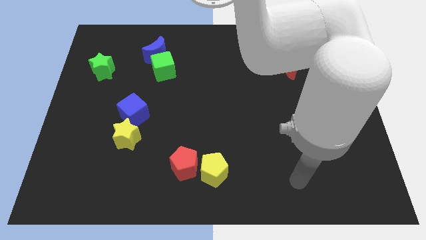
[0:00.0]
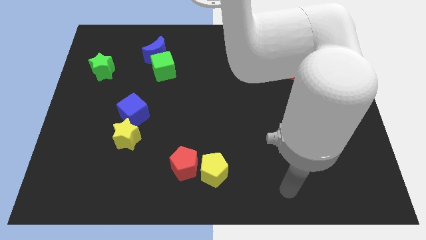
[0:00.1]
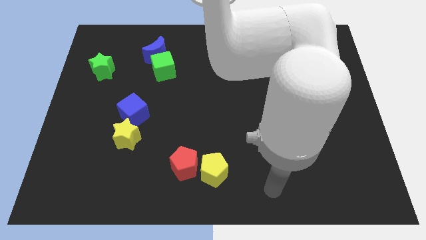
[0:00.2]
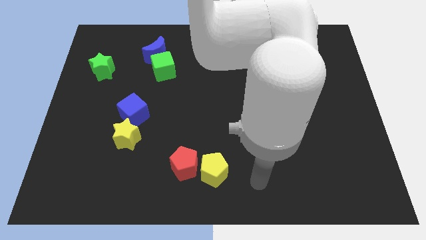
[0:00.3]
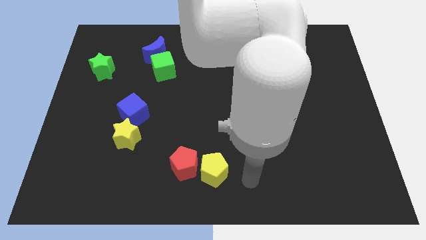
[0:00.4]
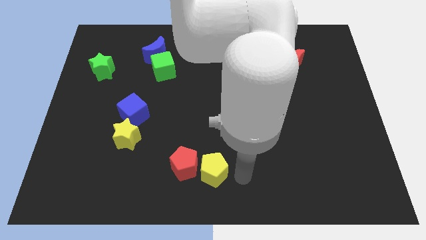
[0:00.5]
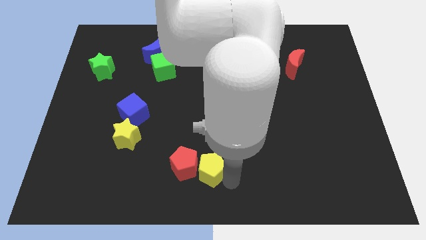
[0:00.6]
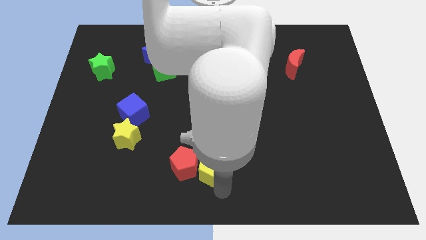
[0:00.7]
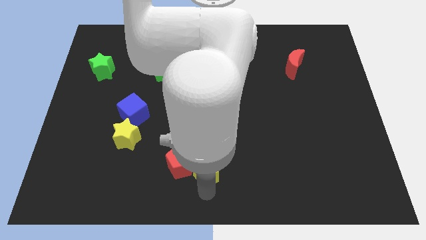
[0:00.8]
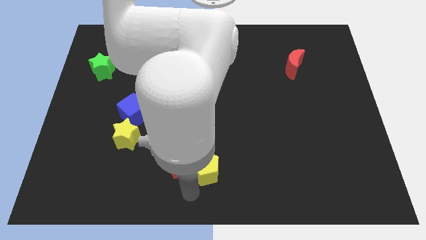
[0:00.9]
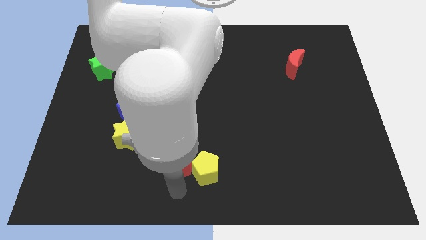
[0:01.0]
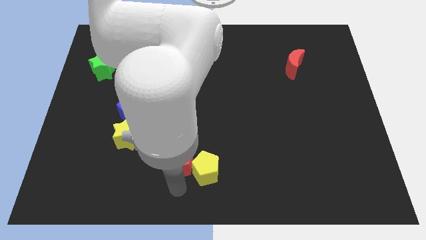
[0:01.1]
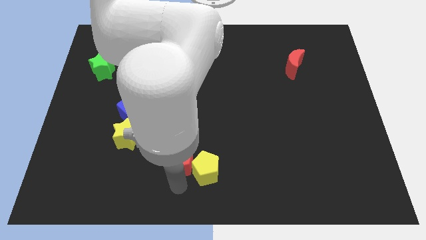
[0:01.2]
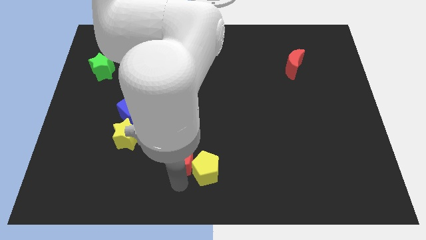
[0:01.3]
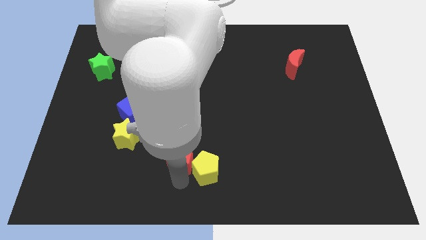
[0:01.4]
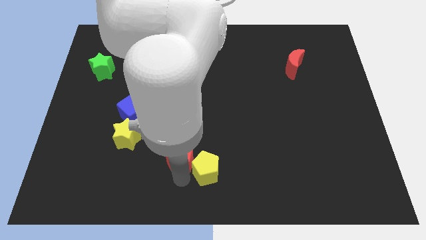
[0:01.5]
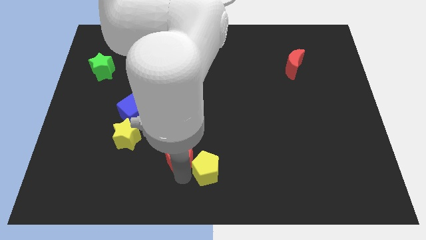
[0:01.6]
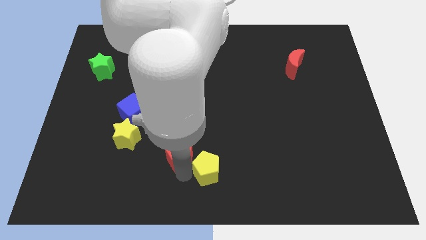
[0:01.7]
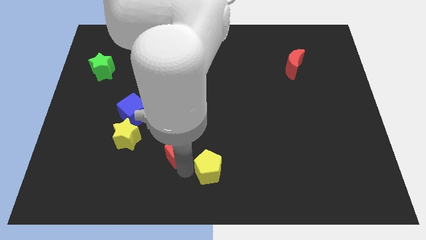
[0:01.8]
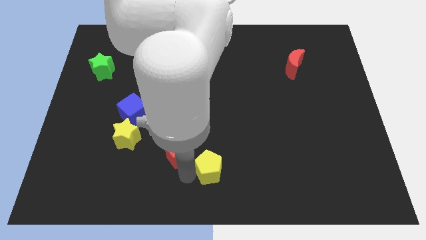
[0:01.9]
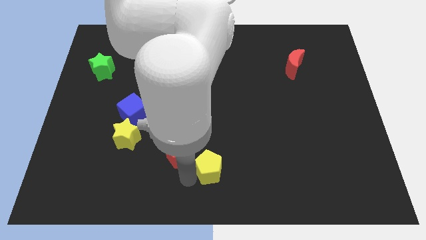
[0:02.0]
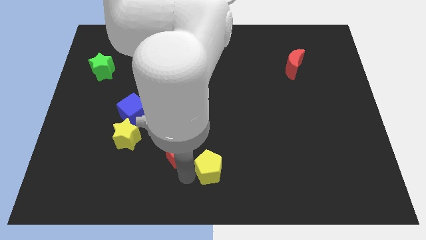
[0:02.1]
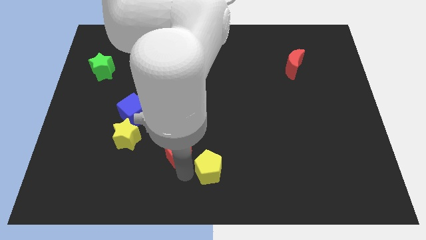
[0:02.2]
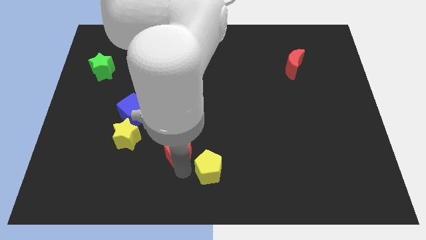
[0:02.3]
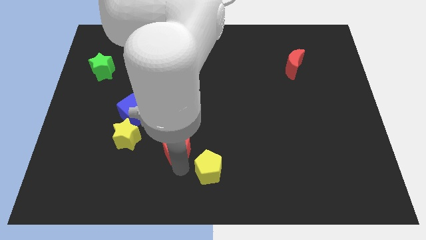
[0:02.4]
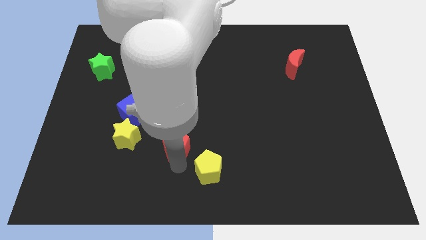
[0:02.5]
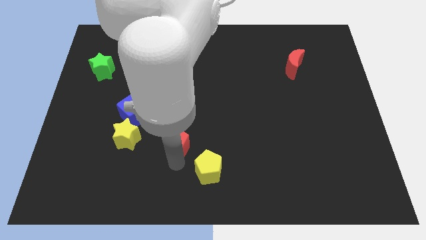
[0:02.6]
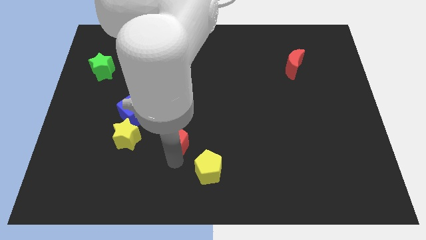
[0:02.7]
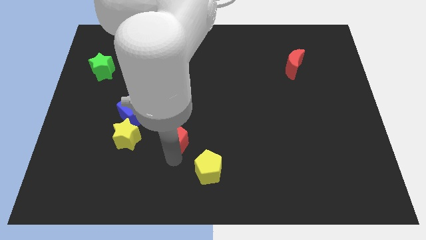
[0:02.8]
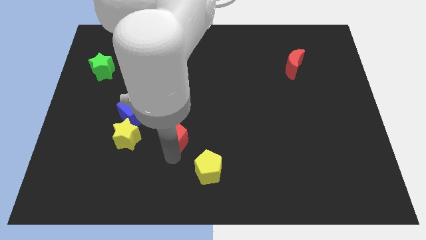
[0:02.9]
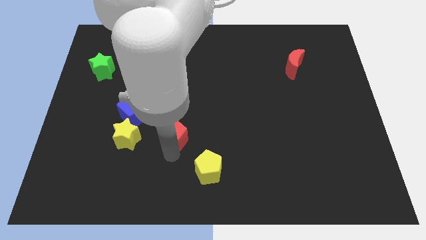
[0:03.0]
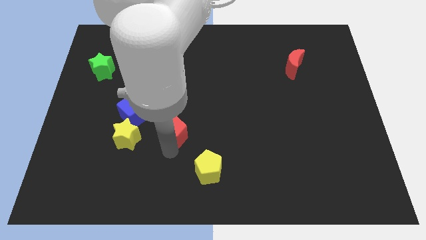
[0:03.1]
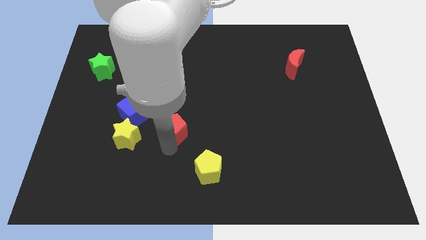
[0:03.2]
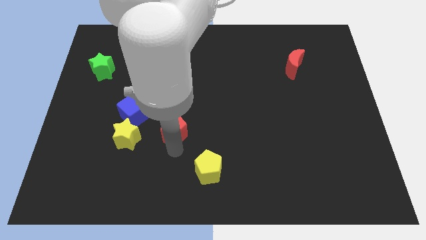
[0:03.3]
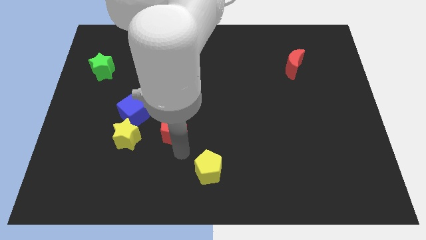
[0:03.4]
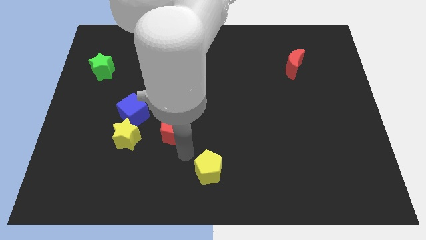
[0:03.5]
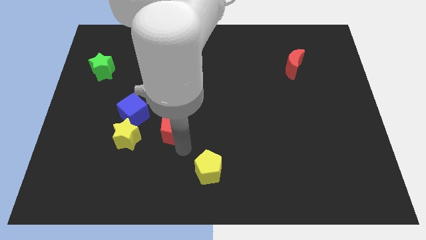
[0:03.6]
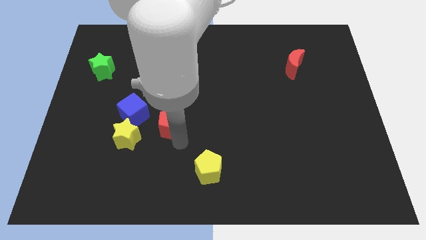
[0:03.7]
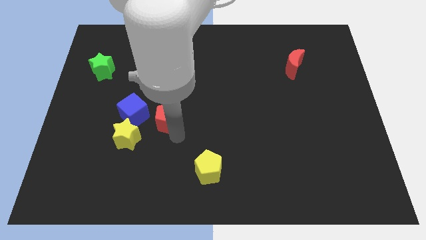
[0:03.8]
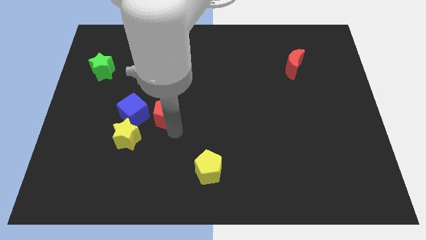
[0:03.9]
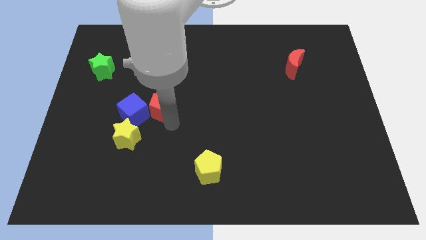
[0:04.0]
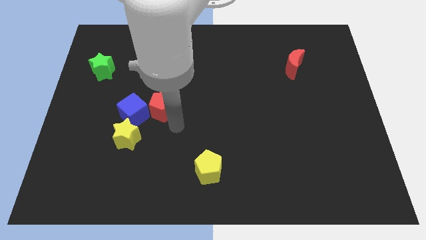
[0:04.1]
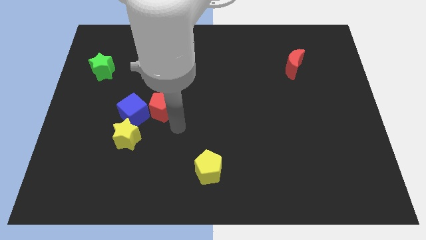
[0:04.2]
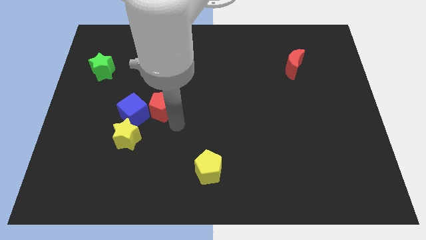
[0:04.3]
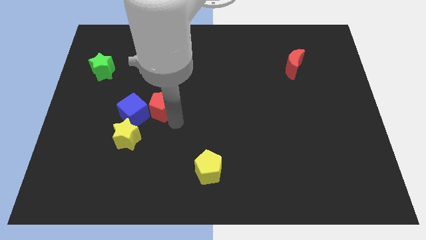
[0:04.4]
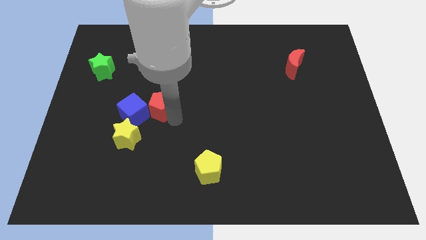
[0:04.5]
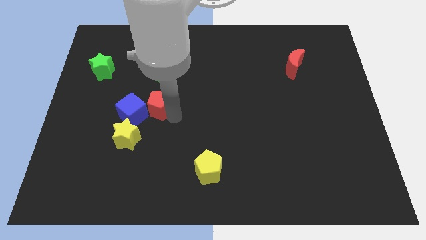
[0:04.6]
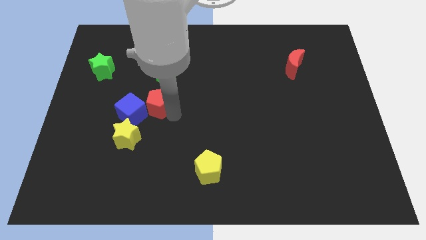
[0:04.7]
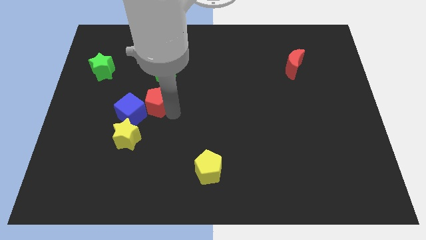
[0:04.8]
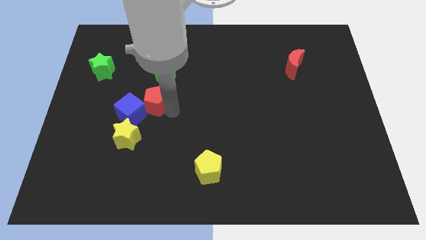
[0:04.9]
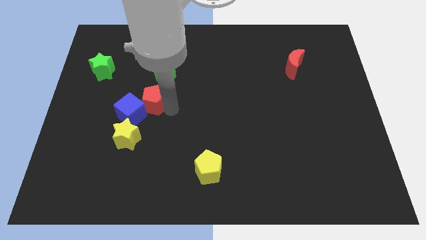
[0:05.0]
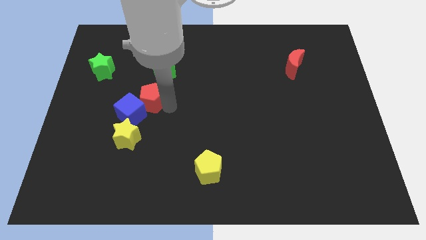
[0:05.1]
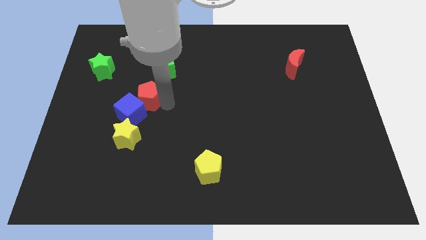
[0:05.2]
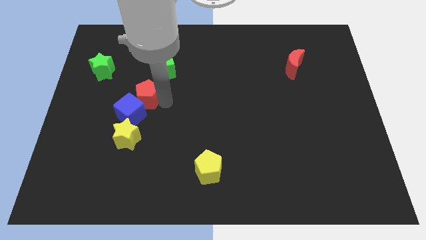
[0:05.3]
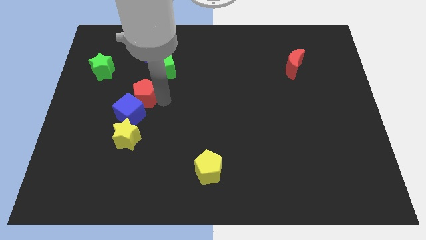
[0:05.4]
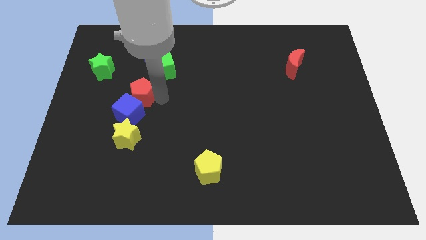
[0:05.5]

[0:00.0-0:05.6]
move the red pentagon diagonally upwards and to the left

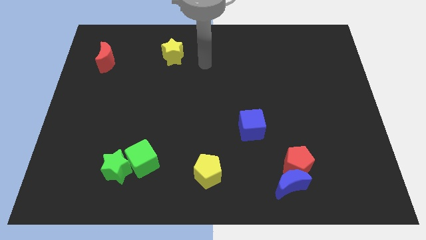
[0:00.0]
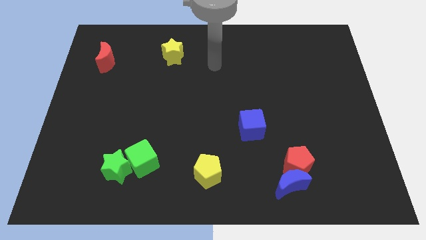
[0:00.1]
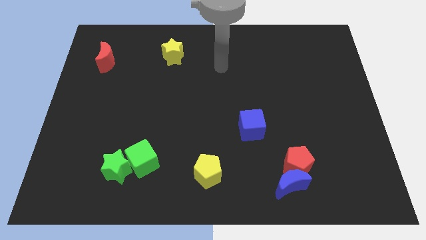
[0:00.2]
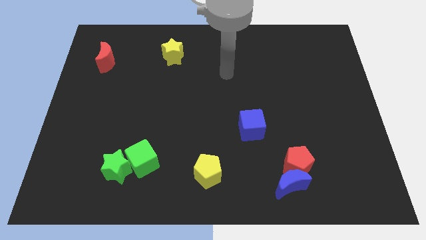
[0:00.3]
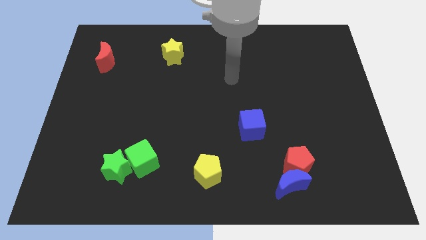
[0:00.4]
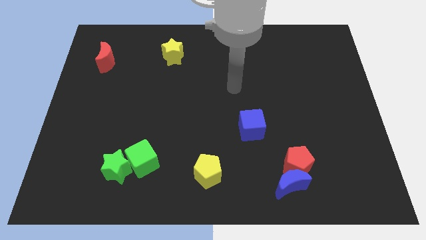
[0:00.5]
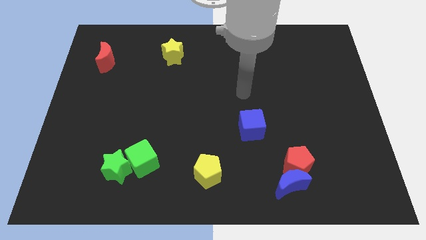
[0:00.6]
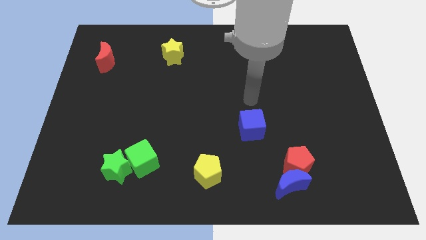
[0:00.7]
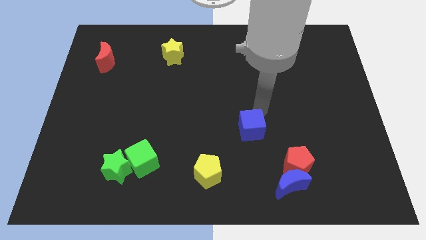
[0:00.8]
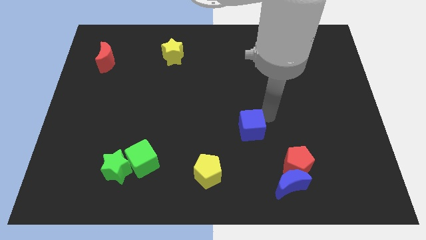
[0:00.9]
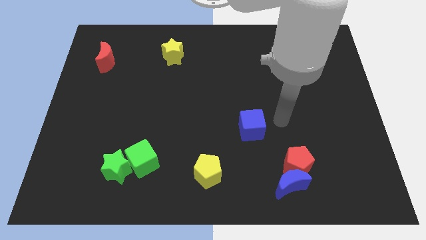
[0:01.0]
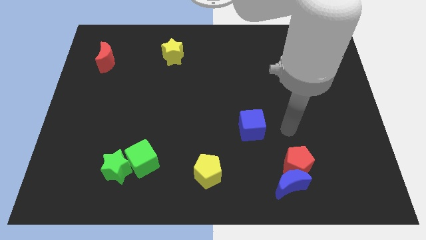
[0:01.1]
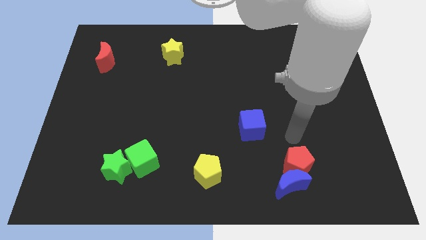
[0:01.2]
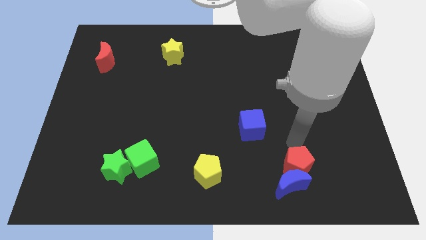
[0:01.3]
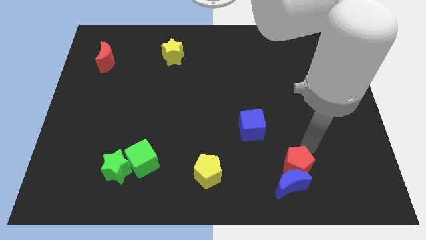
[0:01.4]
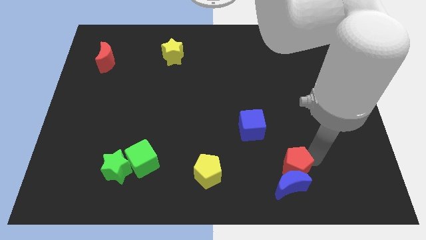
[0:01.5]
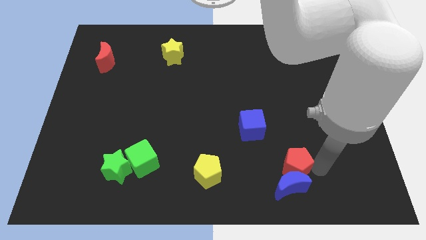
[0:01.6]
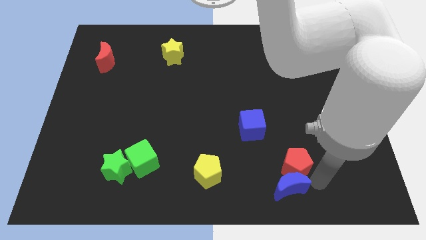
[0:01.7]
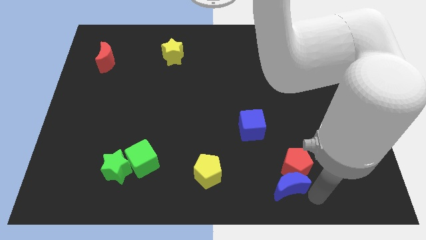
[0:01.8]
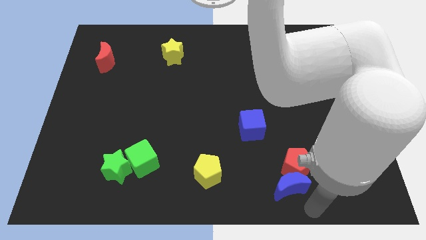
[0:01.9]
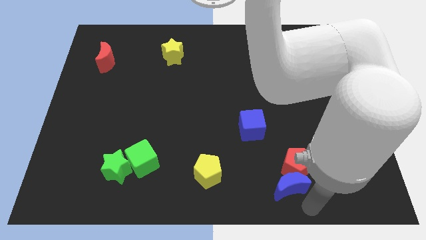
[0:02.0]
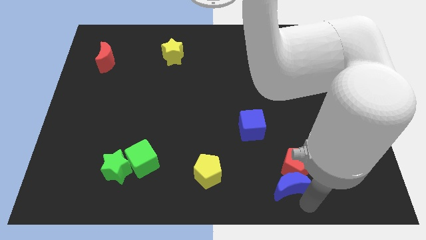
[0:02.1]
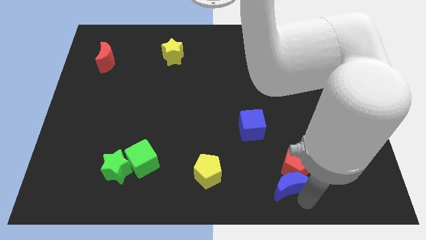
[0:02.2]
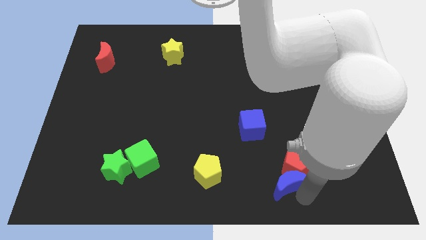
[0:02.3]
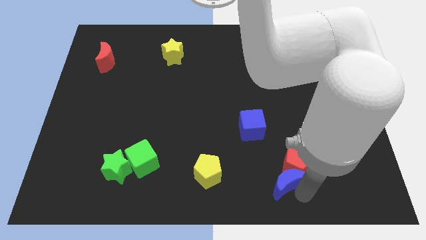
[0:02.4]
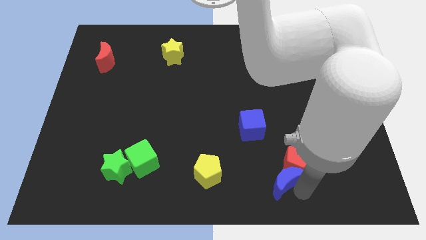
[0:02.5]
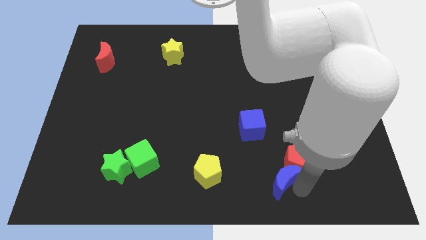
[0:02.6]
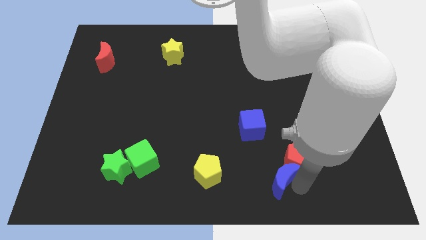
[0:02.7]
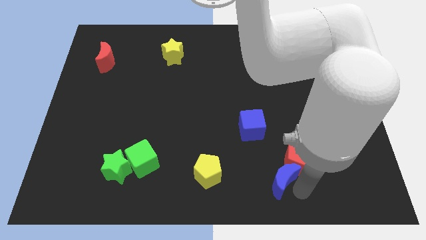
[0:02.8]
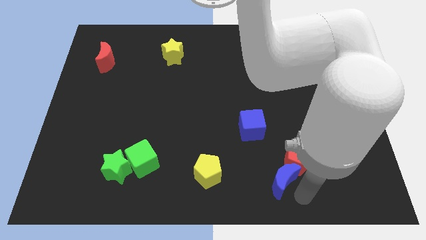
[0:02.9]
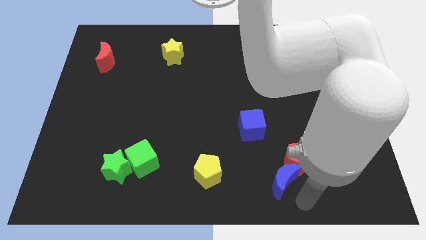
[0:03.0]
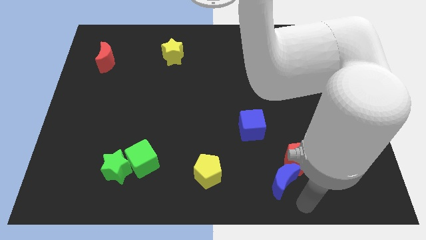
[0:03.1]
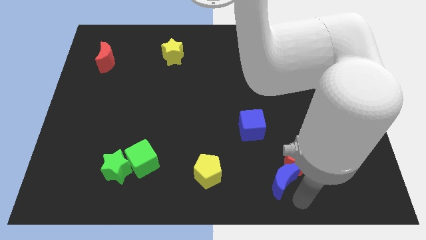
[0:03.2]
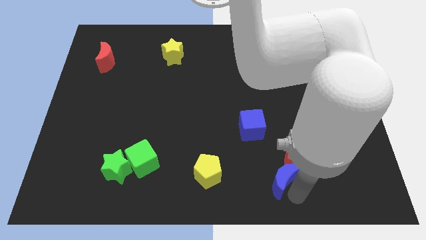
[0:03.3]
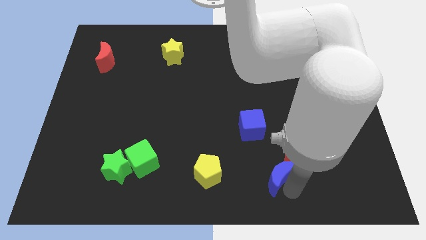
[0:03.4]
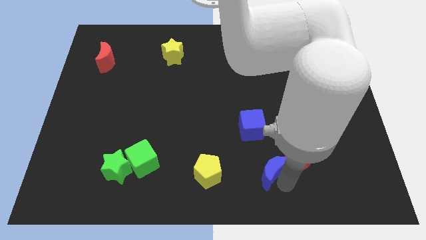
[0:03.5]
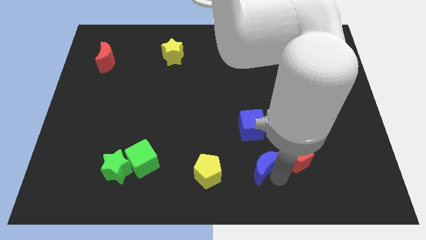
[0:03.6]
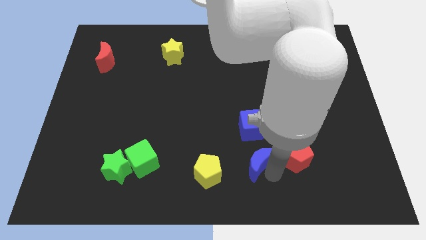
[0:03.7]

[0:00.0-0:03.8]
slide the blue moon up and to the left somewhat
